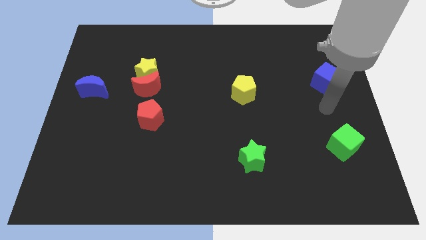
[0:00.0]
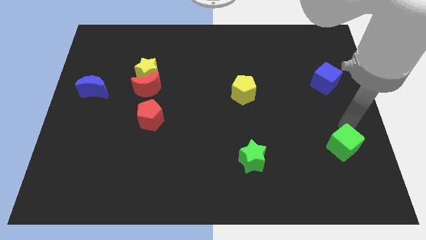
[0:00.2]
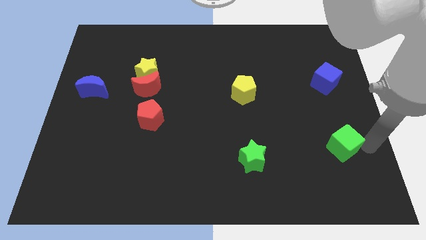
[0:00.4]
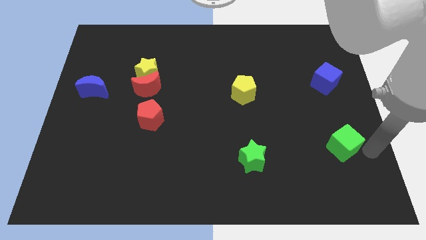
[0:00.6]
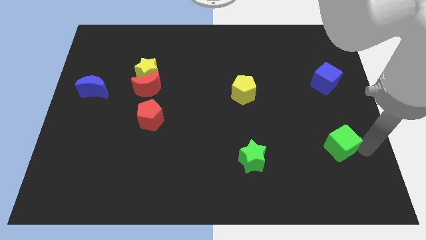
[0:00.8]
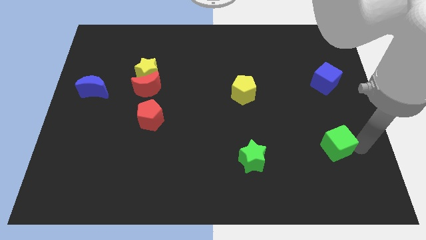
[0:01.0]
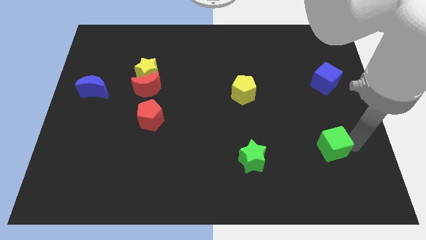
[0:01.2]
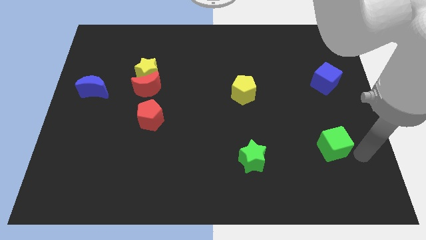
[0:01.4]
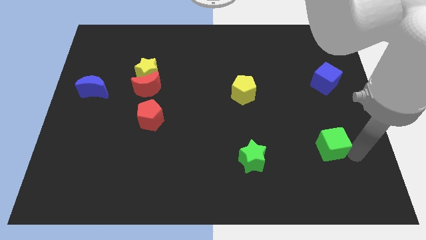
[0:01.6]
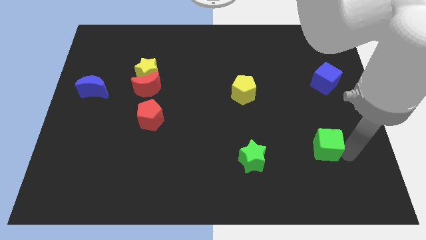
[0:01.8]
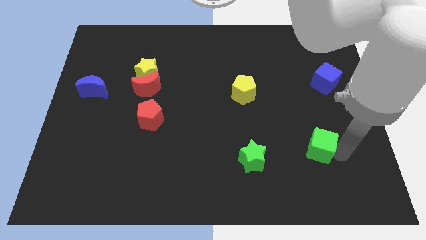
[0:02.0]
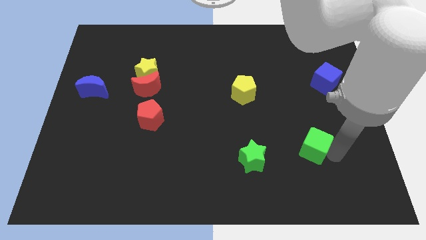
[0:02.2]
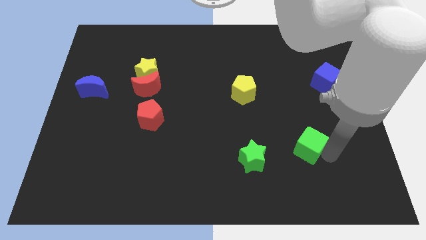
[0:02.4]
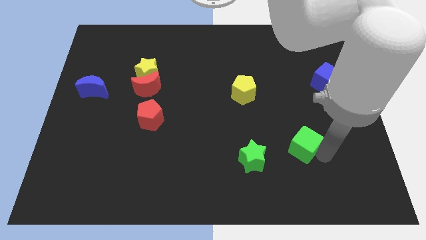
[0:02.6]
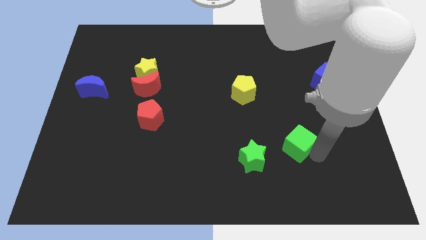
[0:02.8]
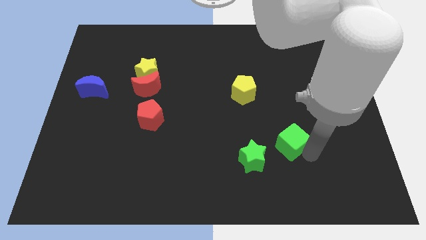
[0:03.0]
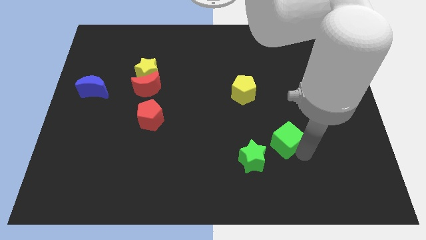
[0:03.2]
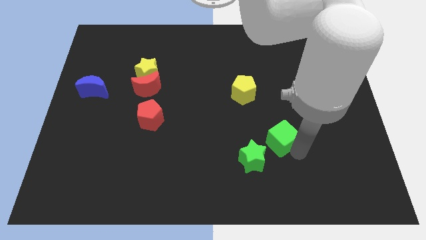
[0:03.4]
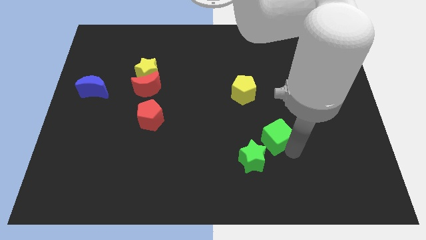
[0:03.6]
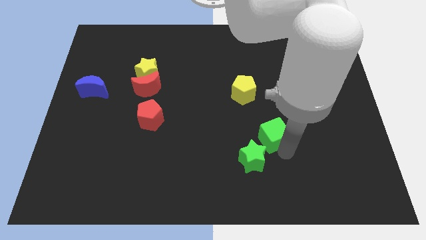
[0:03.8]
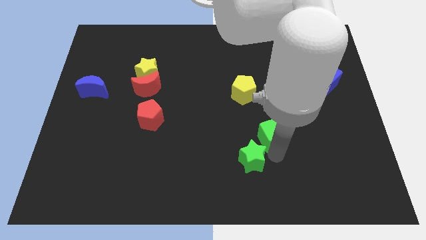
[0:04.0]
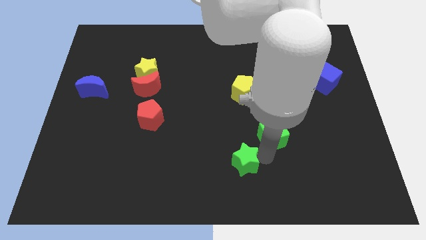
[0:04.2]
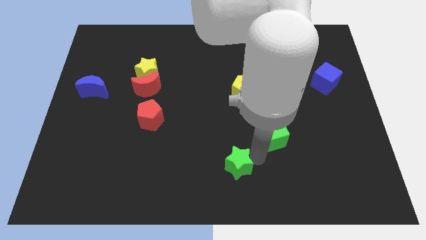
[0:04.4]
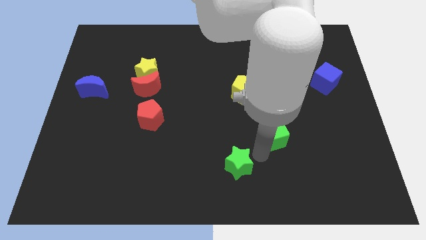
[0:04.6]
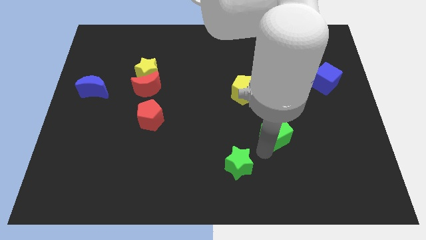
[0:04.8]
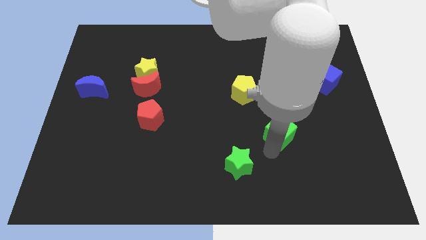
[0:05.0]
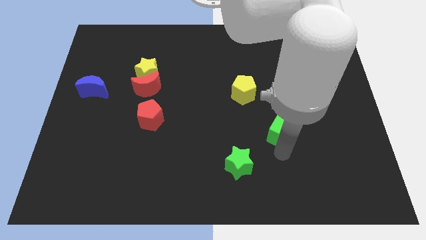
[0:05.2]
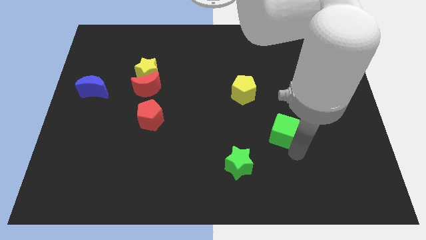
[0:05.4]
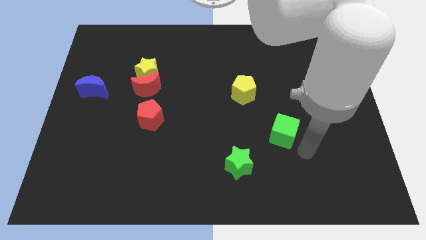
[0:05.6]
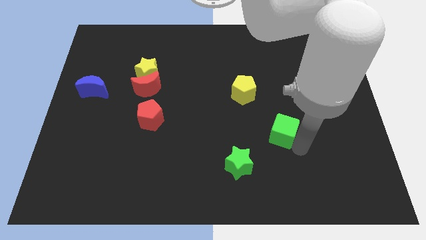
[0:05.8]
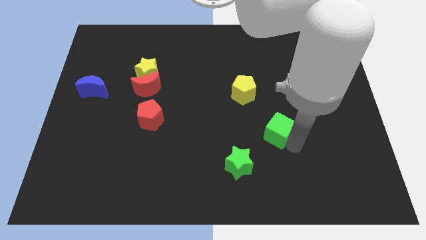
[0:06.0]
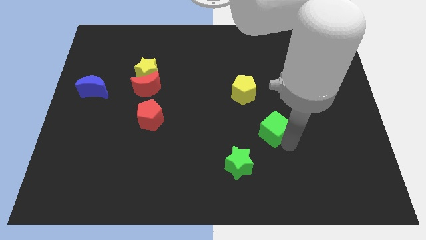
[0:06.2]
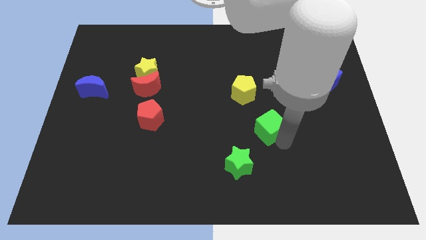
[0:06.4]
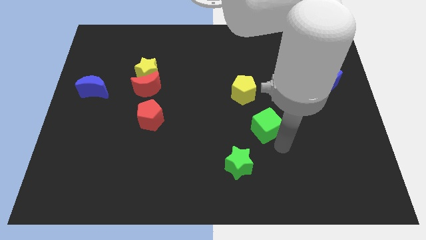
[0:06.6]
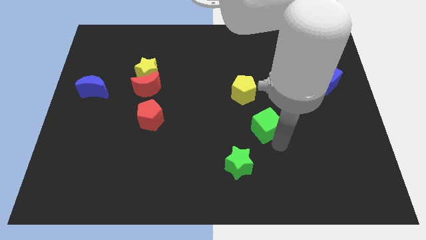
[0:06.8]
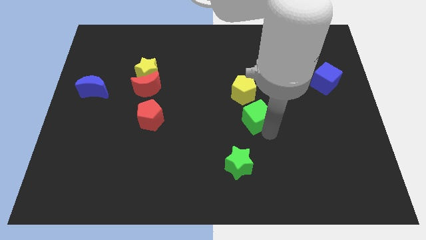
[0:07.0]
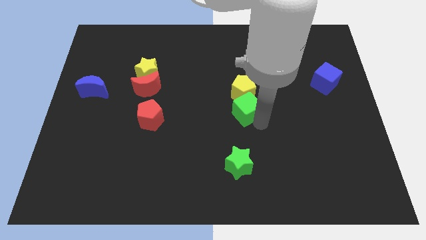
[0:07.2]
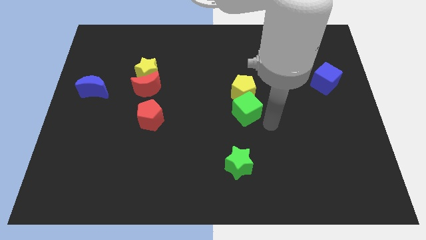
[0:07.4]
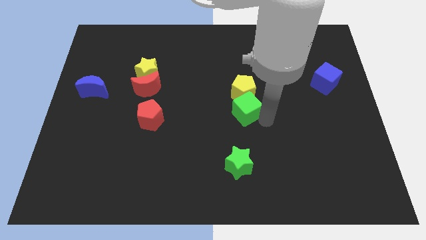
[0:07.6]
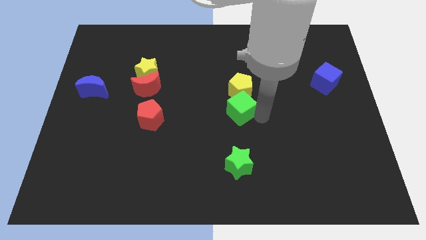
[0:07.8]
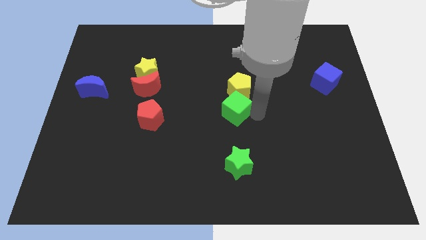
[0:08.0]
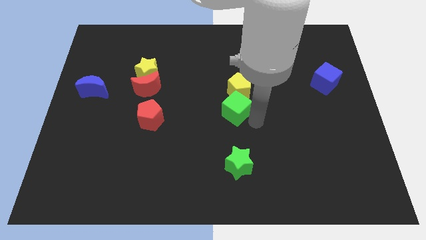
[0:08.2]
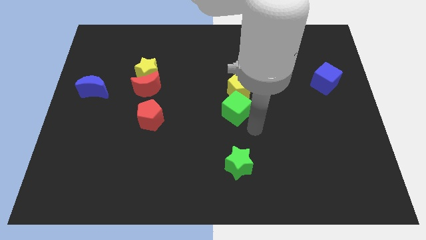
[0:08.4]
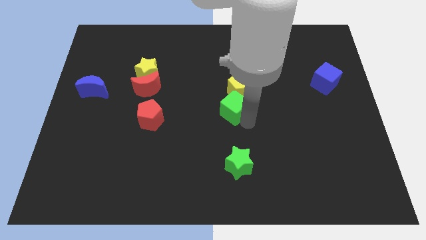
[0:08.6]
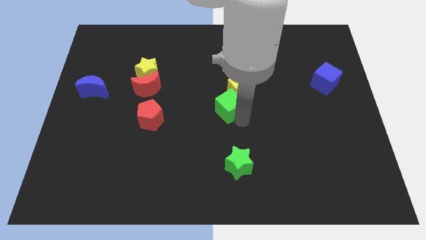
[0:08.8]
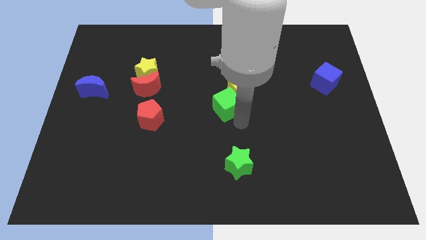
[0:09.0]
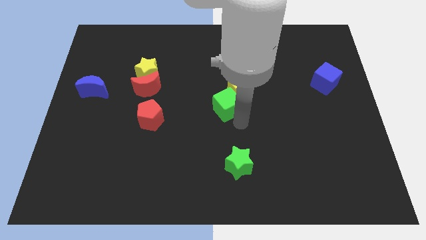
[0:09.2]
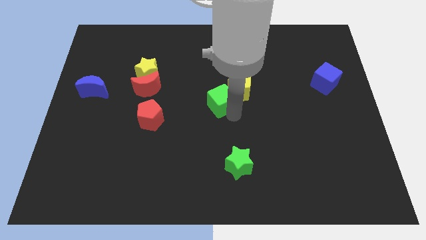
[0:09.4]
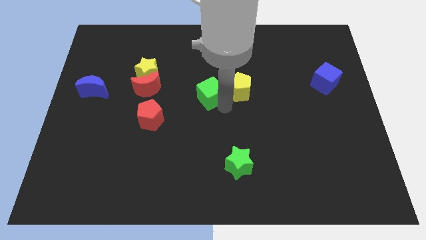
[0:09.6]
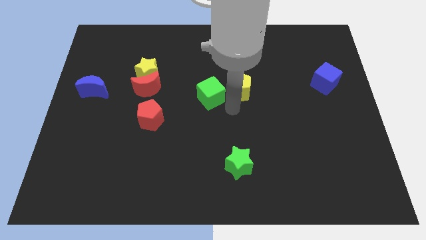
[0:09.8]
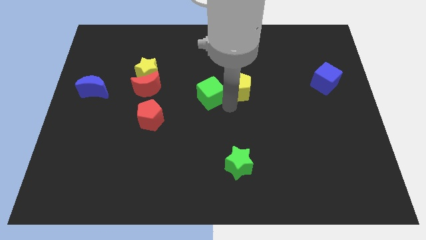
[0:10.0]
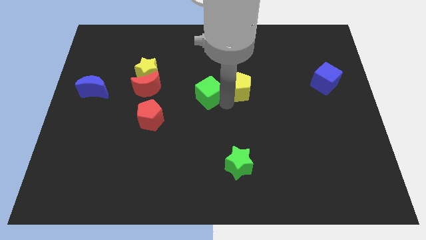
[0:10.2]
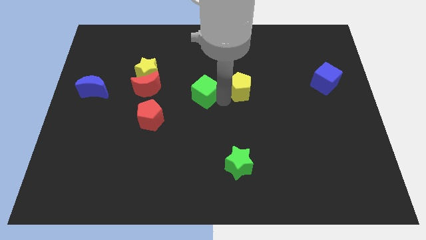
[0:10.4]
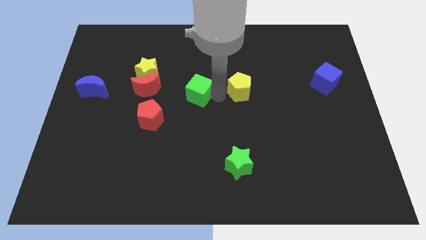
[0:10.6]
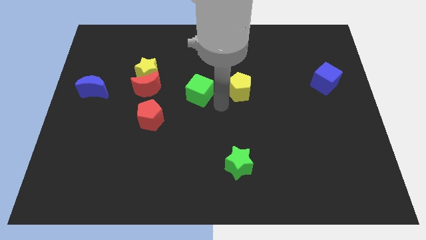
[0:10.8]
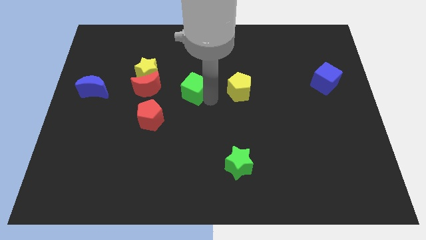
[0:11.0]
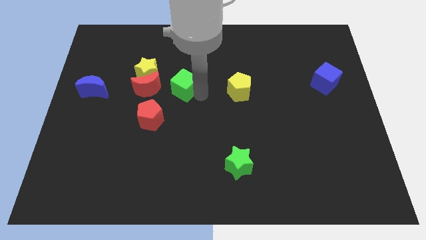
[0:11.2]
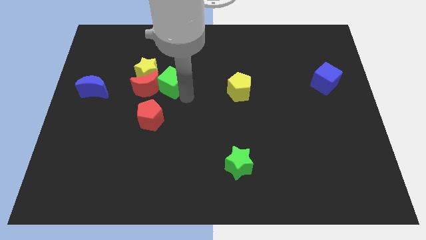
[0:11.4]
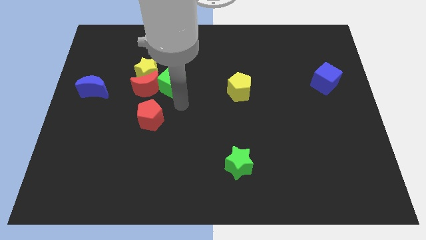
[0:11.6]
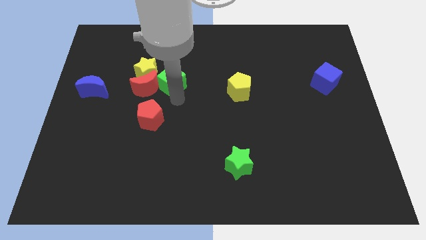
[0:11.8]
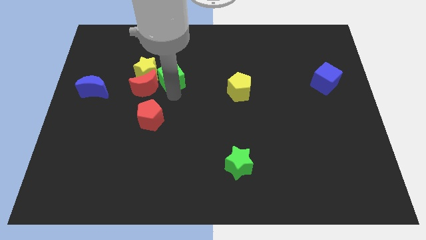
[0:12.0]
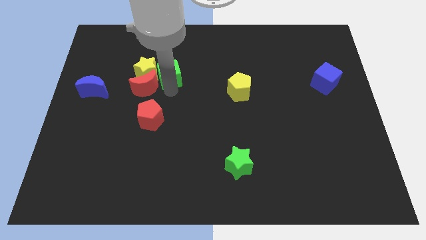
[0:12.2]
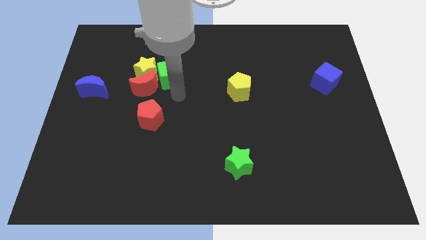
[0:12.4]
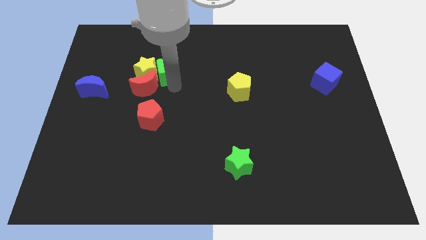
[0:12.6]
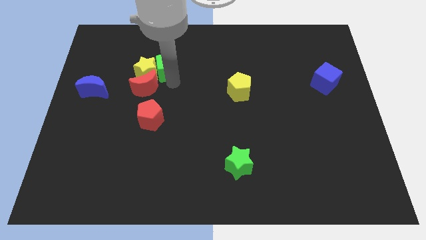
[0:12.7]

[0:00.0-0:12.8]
slide the green cube to the top of the red moon

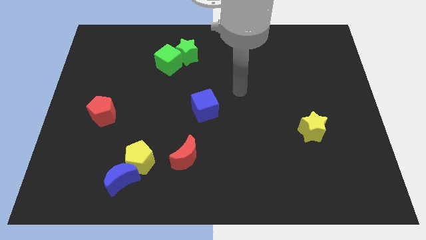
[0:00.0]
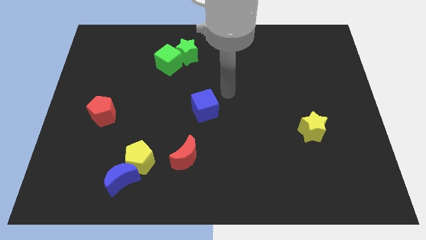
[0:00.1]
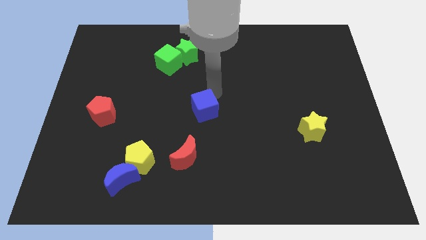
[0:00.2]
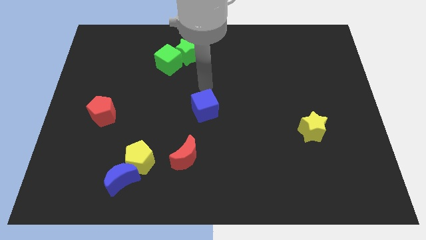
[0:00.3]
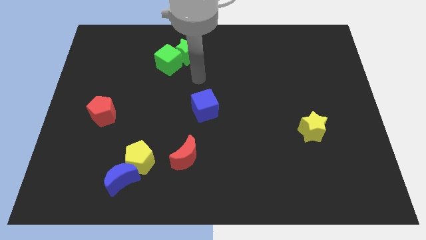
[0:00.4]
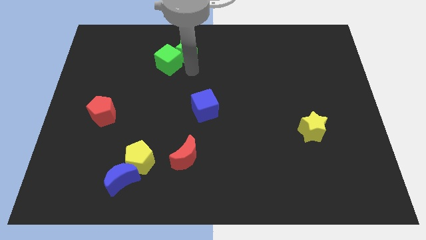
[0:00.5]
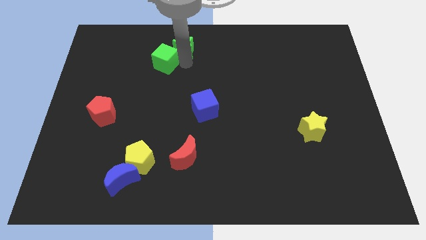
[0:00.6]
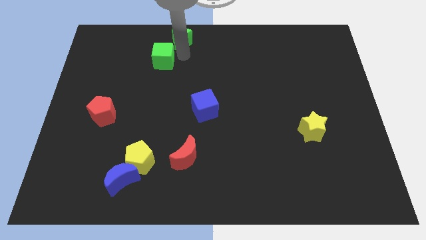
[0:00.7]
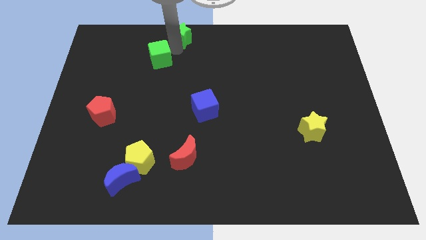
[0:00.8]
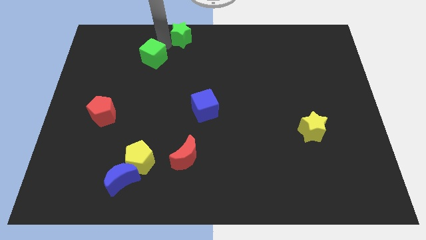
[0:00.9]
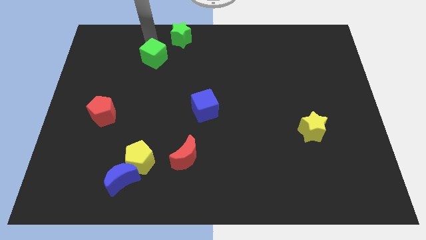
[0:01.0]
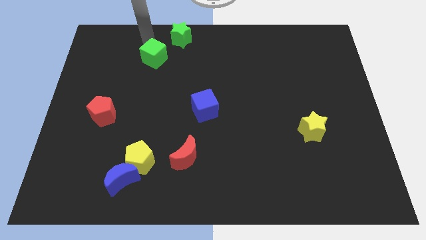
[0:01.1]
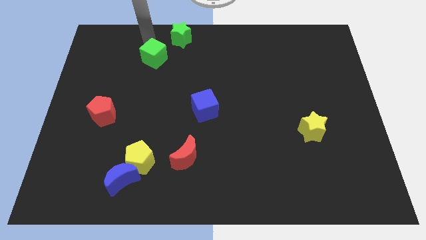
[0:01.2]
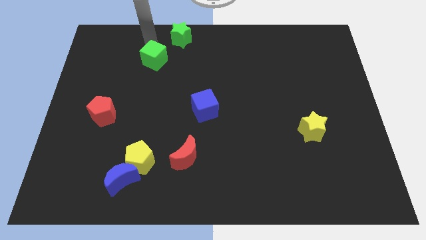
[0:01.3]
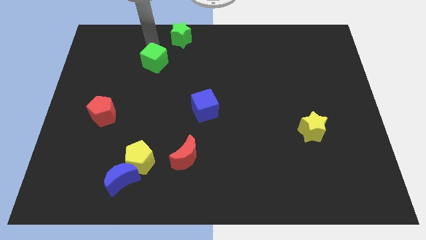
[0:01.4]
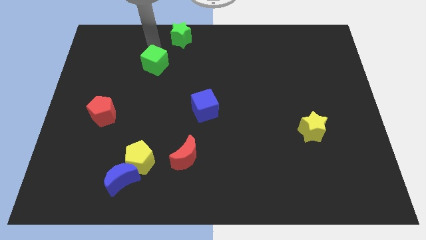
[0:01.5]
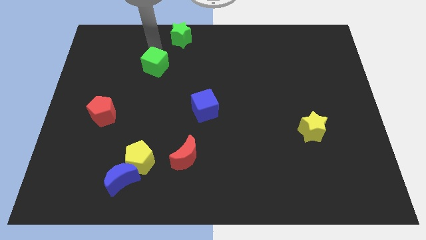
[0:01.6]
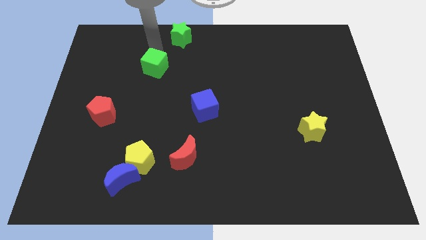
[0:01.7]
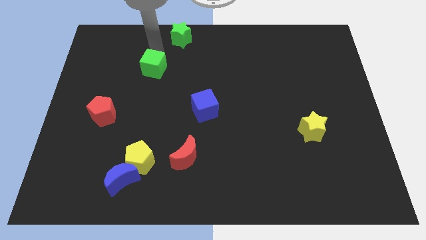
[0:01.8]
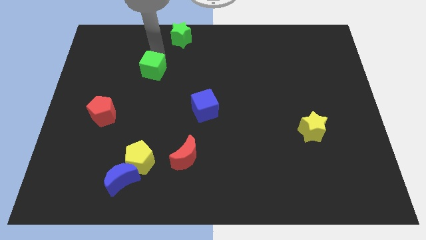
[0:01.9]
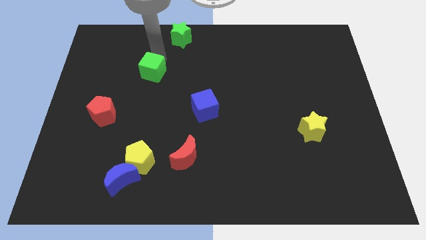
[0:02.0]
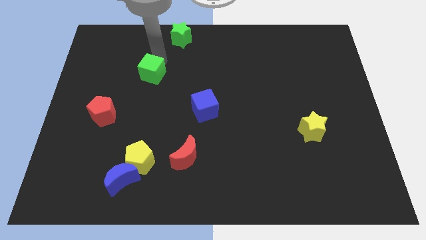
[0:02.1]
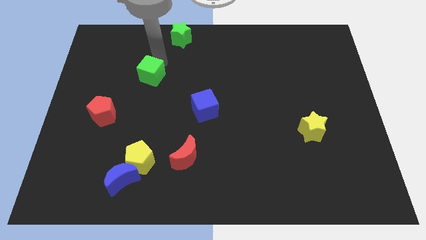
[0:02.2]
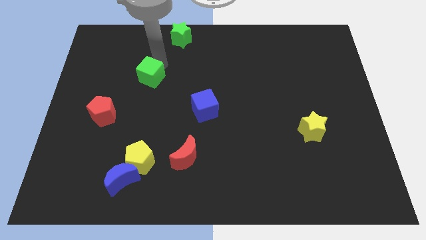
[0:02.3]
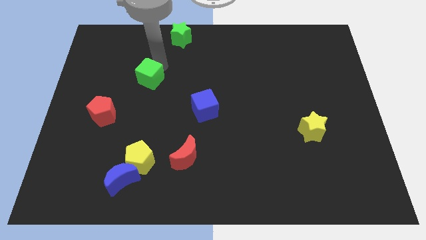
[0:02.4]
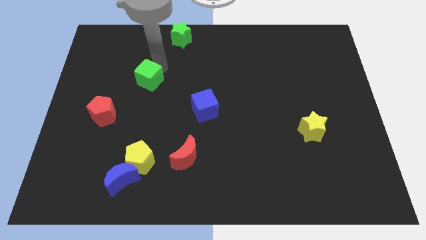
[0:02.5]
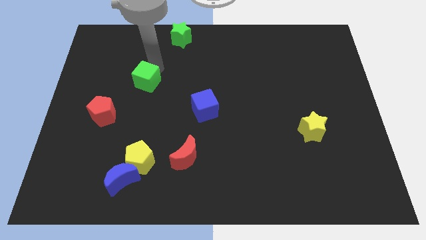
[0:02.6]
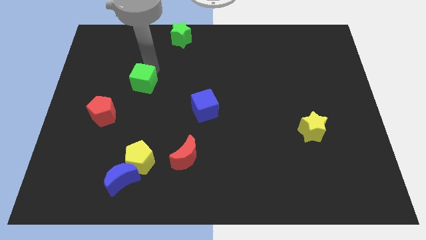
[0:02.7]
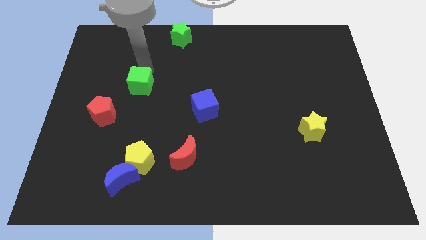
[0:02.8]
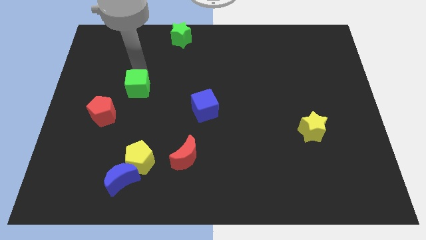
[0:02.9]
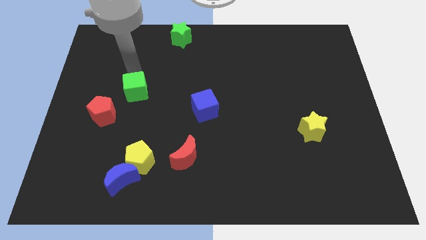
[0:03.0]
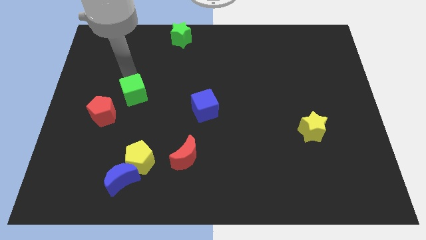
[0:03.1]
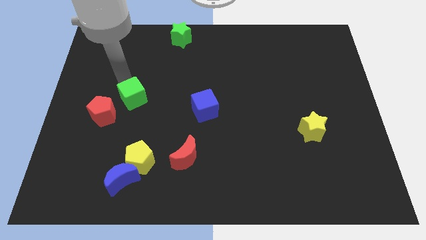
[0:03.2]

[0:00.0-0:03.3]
put the green cube to the right of the red pentagon
